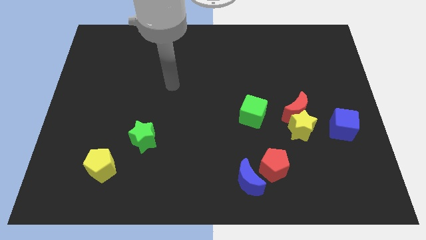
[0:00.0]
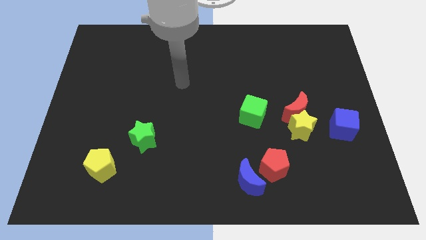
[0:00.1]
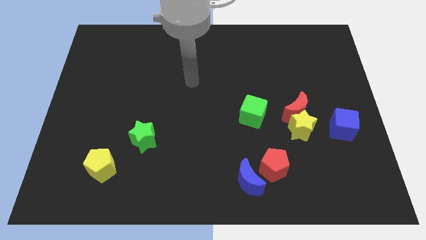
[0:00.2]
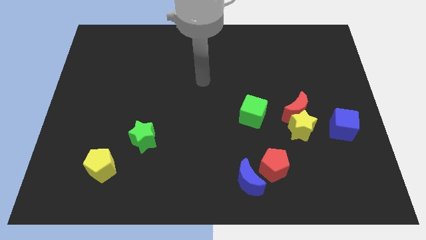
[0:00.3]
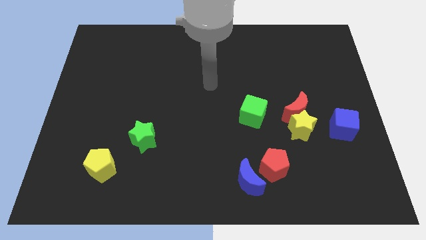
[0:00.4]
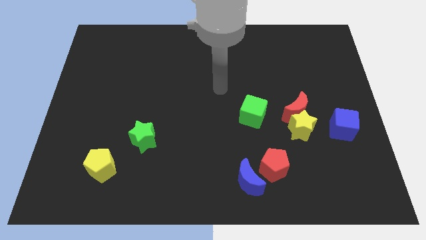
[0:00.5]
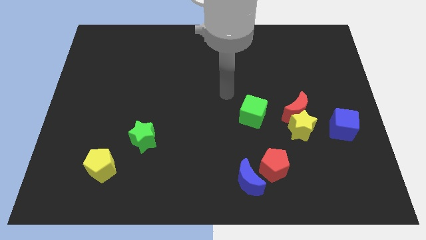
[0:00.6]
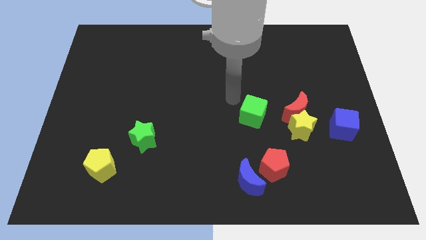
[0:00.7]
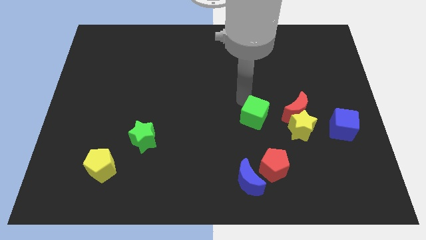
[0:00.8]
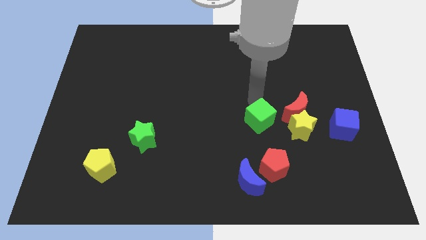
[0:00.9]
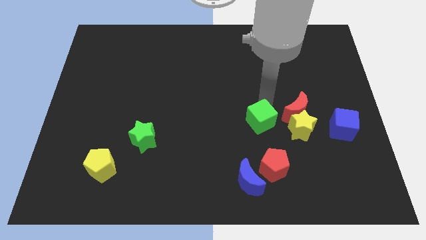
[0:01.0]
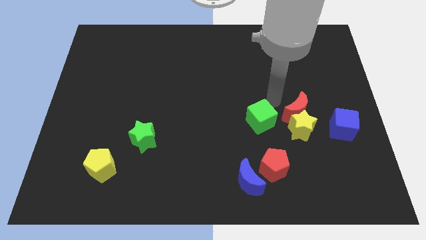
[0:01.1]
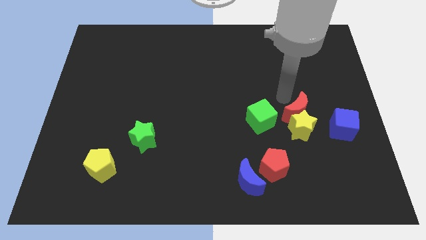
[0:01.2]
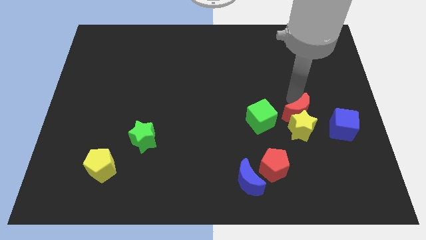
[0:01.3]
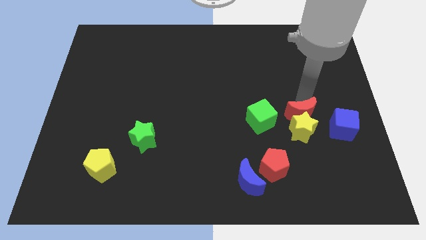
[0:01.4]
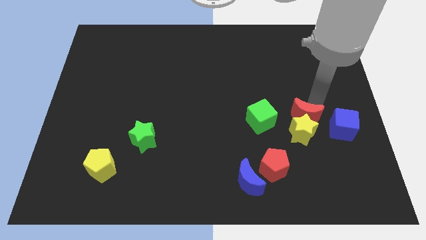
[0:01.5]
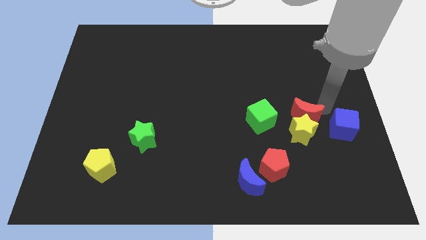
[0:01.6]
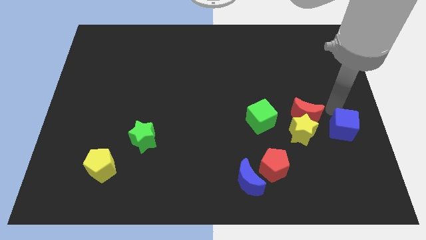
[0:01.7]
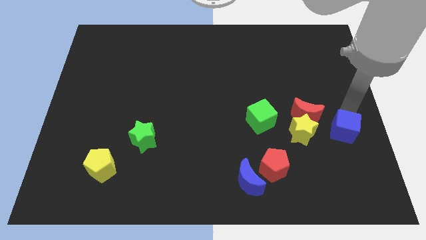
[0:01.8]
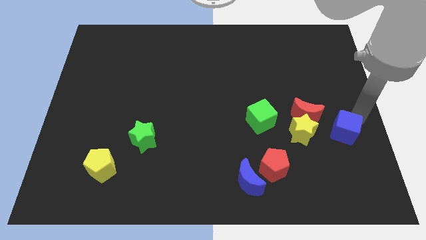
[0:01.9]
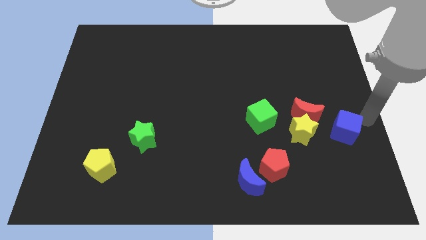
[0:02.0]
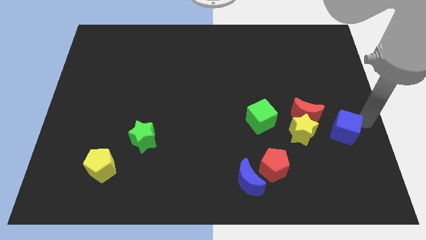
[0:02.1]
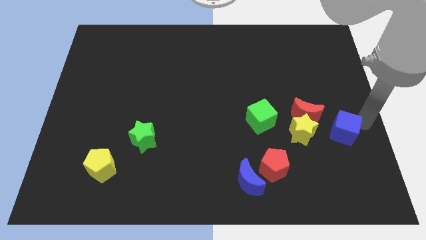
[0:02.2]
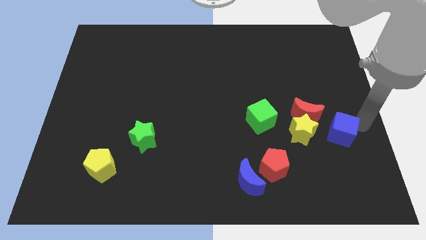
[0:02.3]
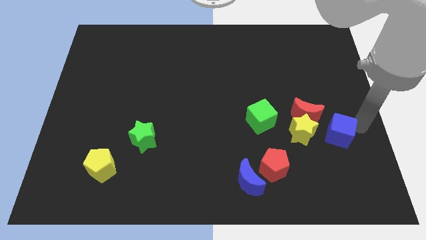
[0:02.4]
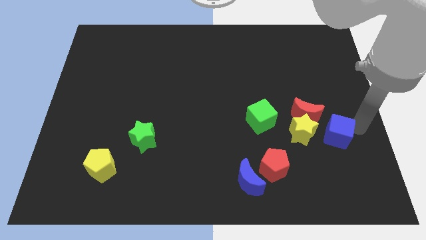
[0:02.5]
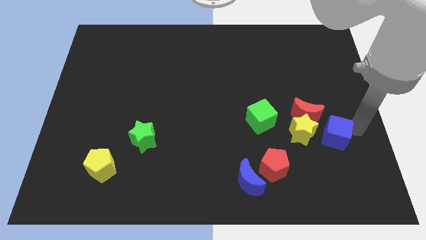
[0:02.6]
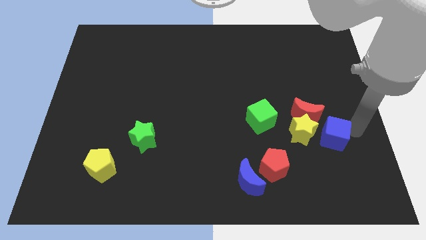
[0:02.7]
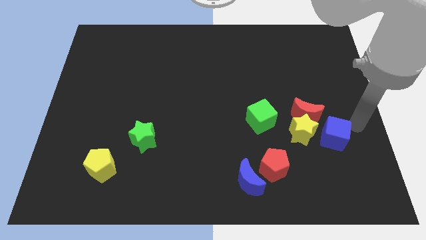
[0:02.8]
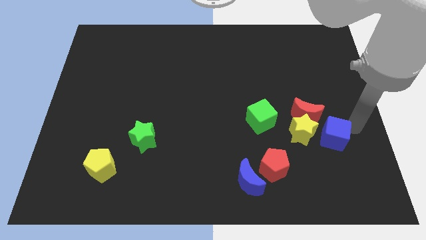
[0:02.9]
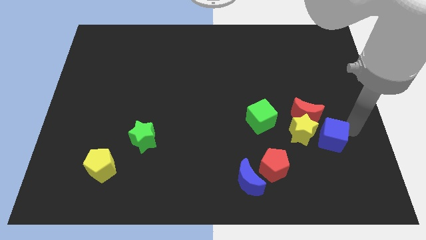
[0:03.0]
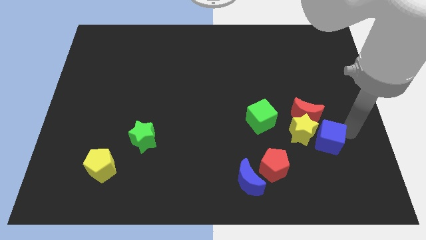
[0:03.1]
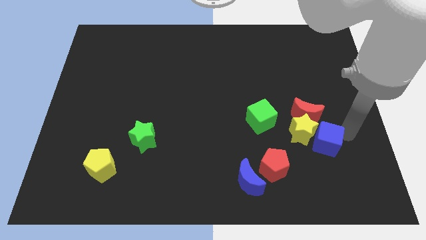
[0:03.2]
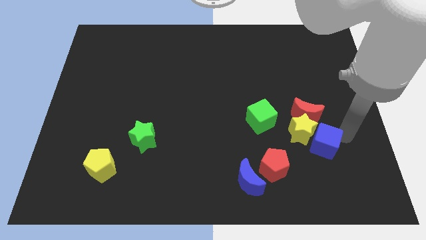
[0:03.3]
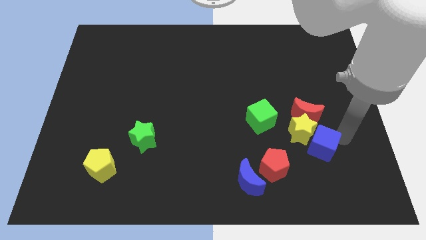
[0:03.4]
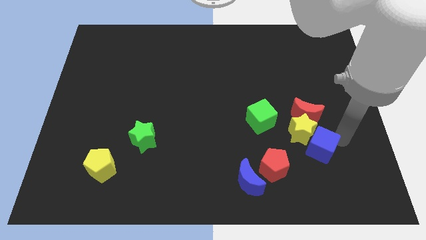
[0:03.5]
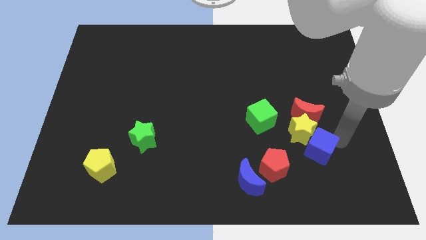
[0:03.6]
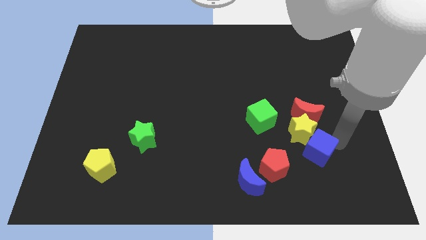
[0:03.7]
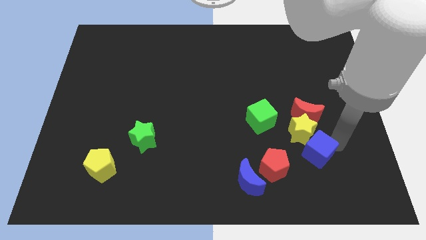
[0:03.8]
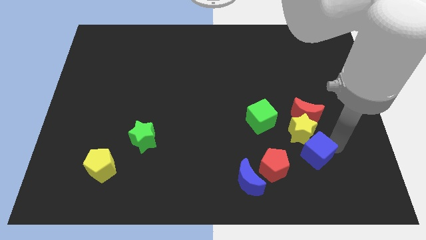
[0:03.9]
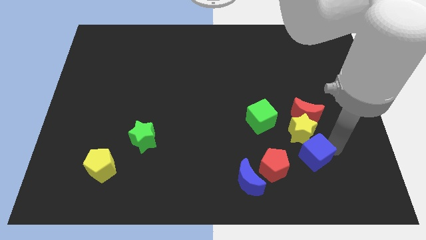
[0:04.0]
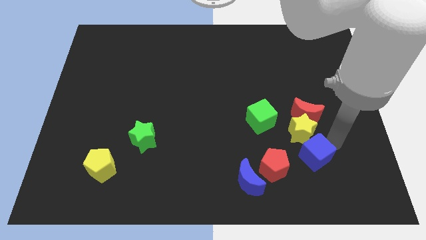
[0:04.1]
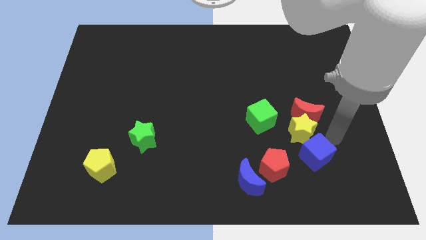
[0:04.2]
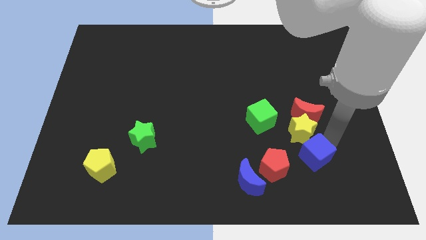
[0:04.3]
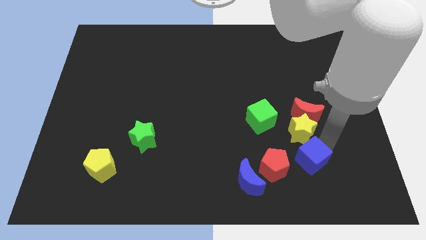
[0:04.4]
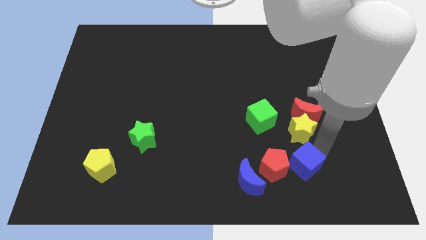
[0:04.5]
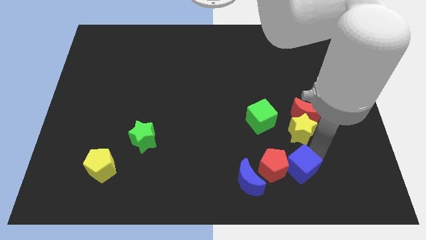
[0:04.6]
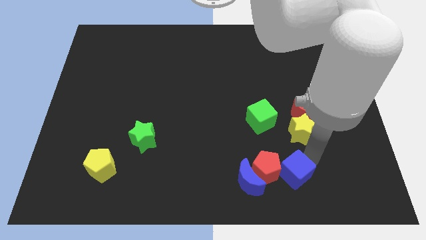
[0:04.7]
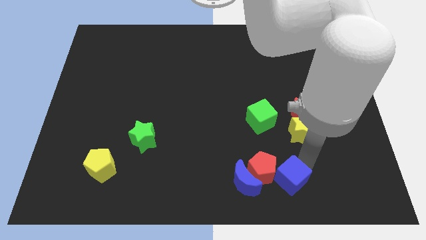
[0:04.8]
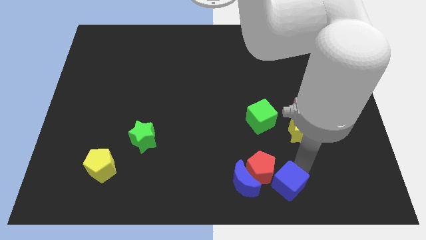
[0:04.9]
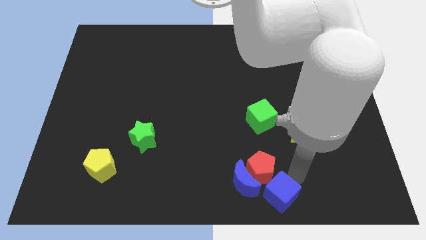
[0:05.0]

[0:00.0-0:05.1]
push the blue cube to the bottom side

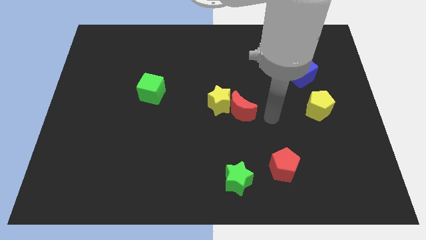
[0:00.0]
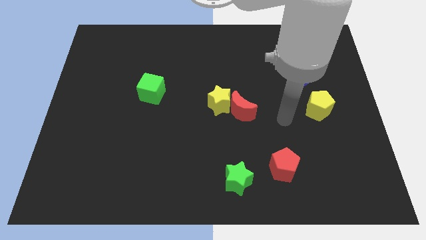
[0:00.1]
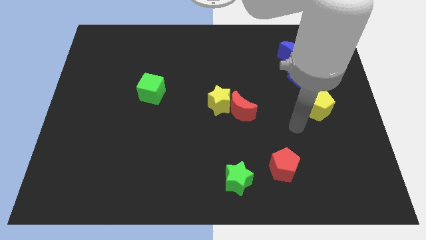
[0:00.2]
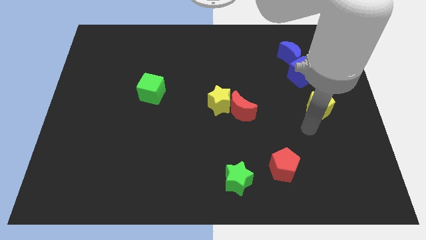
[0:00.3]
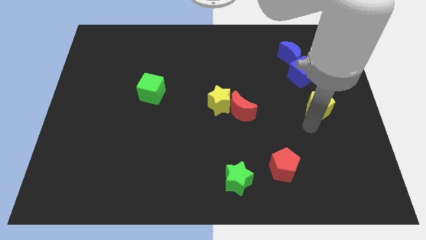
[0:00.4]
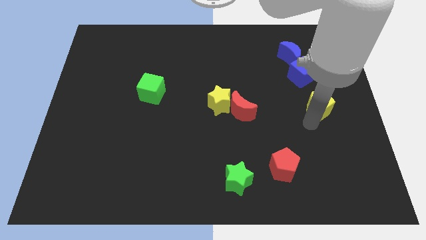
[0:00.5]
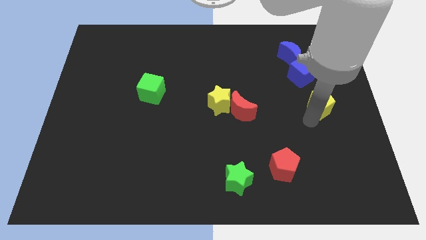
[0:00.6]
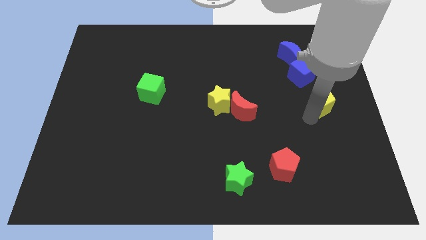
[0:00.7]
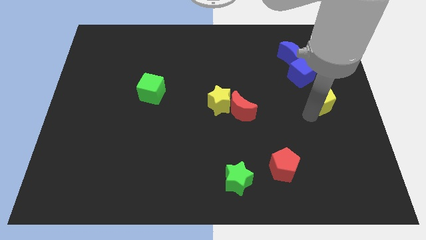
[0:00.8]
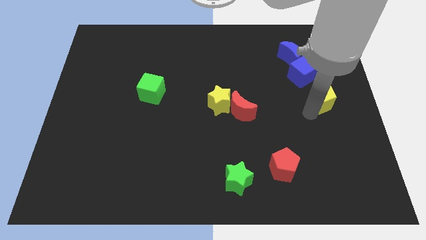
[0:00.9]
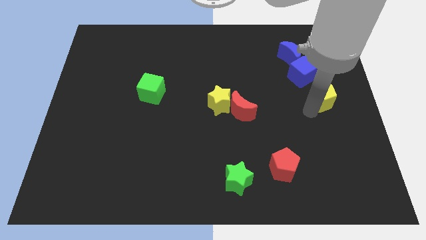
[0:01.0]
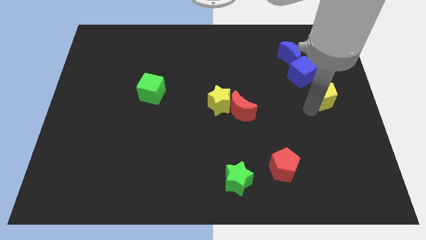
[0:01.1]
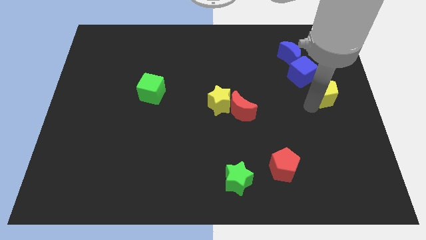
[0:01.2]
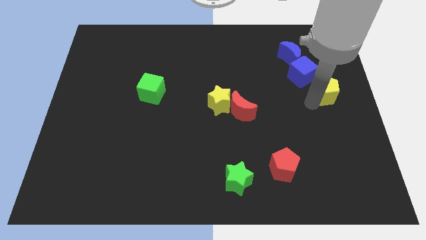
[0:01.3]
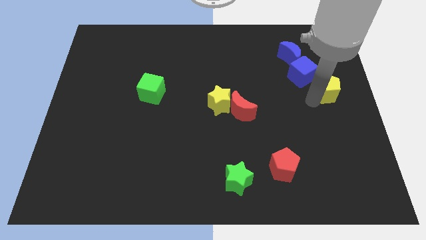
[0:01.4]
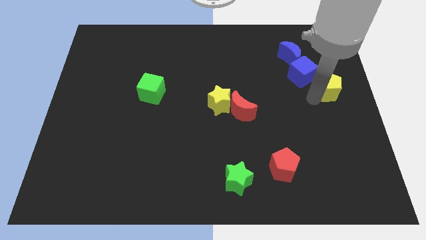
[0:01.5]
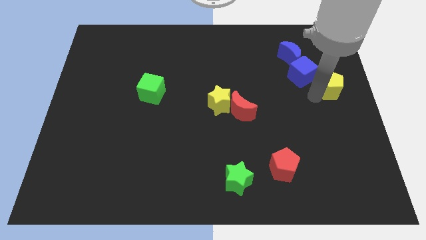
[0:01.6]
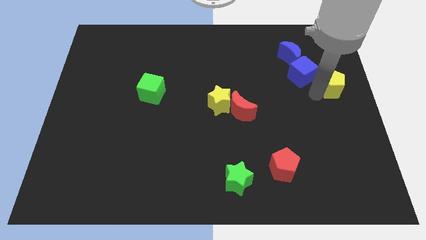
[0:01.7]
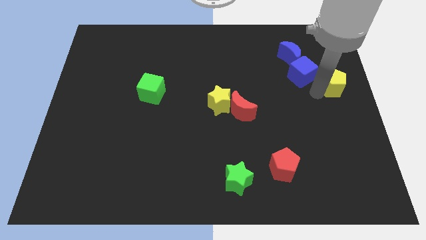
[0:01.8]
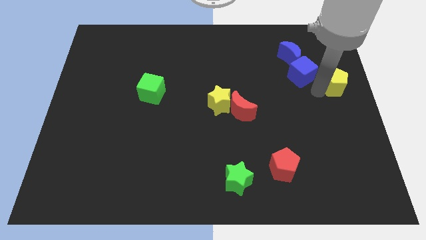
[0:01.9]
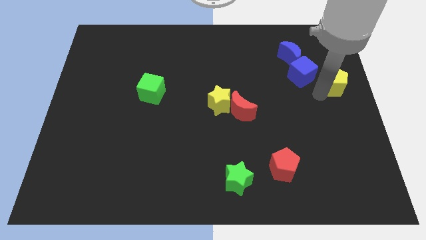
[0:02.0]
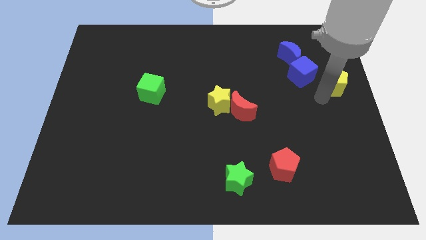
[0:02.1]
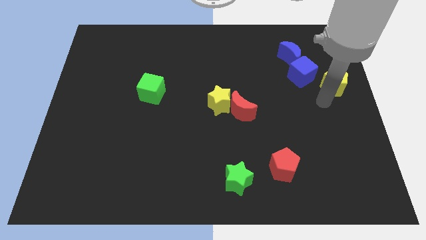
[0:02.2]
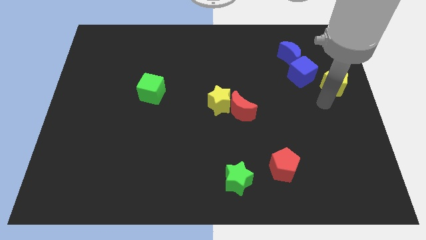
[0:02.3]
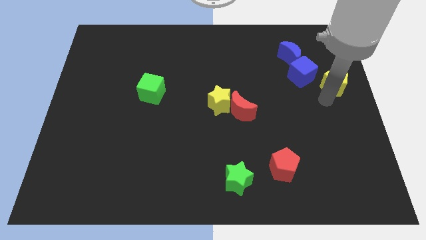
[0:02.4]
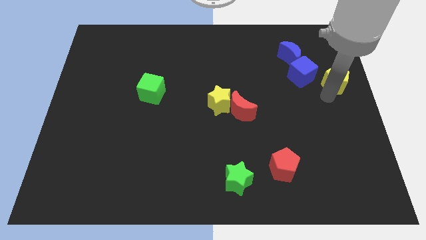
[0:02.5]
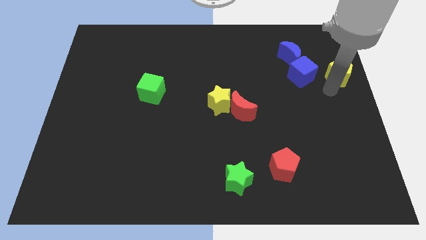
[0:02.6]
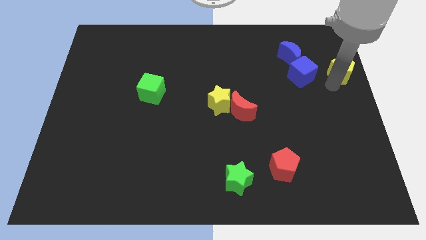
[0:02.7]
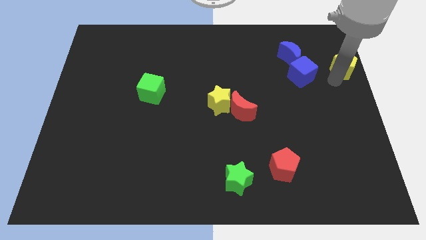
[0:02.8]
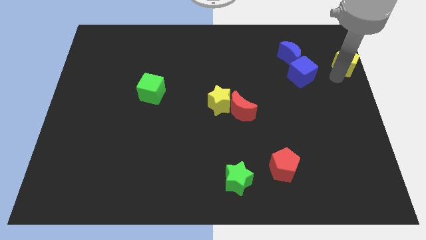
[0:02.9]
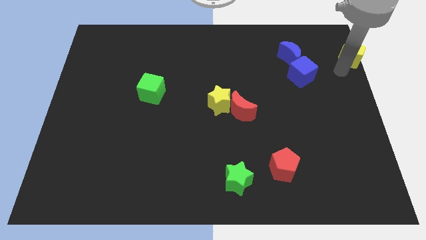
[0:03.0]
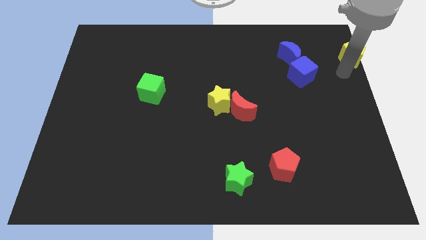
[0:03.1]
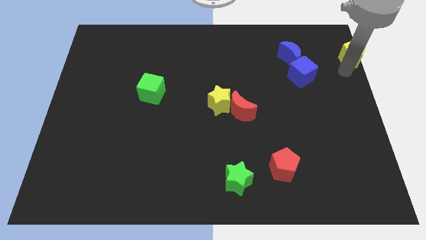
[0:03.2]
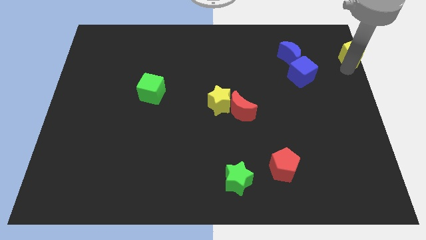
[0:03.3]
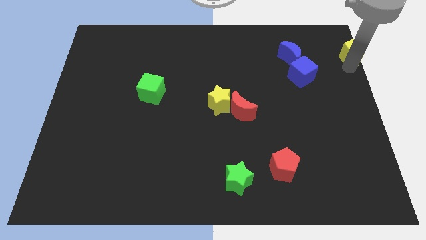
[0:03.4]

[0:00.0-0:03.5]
slide the yellow pentagon to the top right corner
